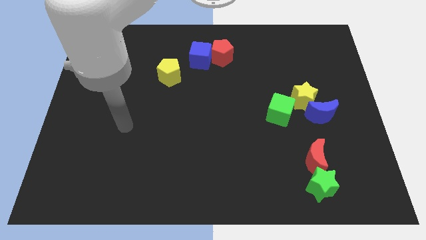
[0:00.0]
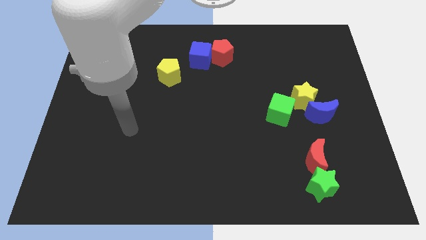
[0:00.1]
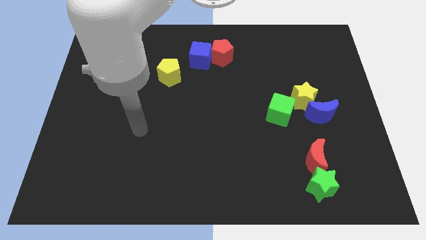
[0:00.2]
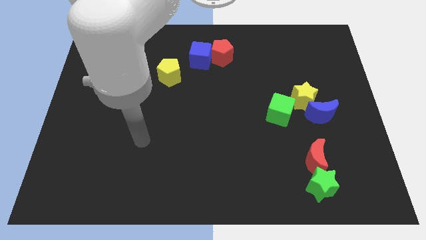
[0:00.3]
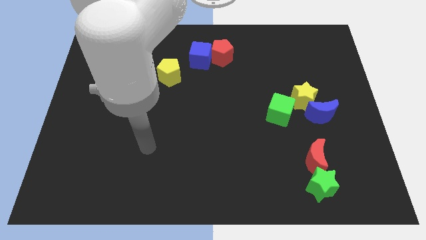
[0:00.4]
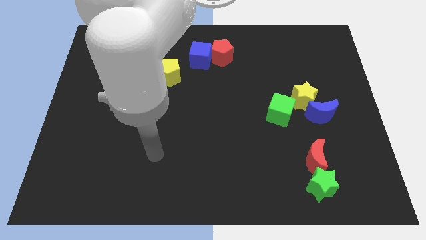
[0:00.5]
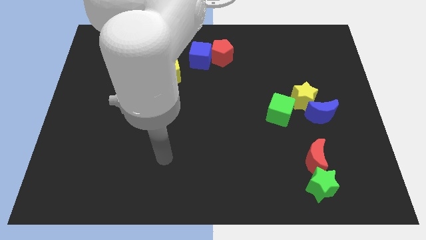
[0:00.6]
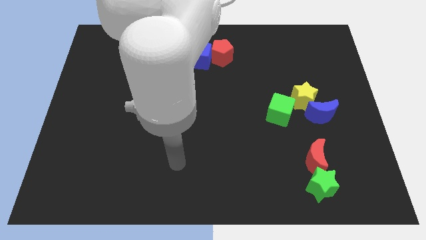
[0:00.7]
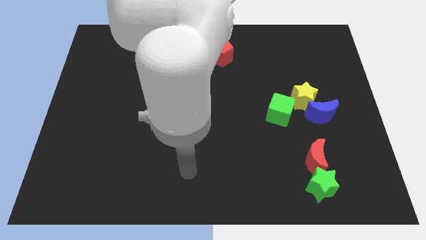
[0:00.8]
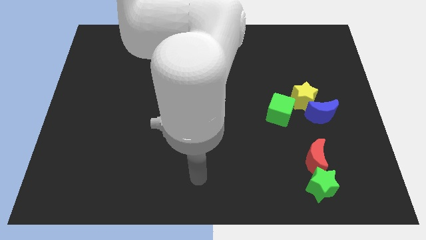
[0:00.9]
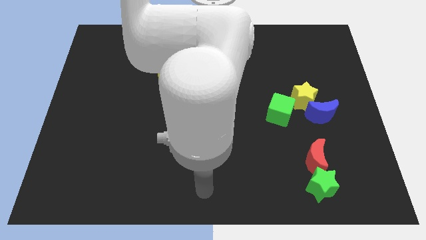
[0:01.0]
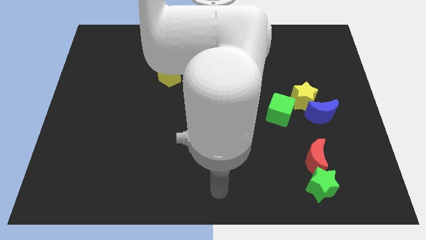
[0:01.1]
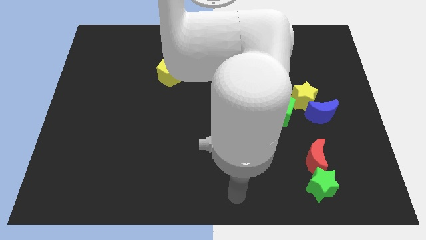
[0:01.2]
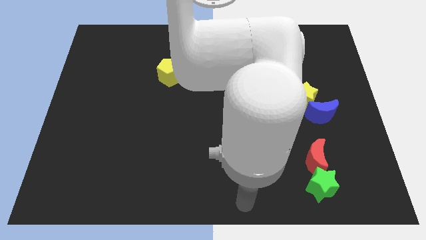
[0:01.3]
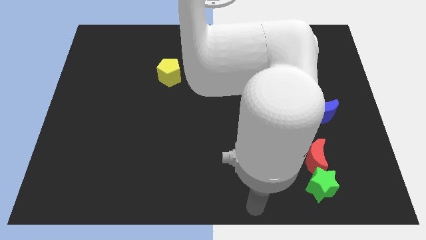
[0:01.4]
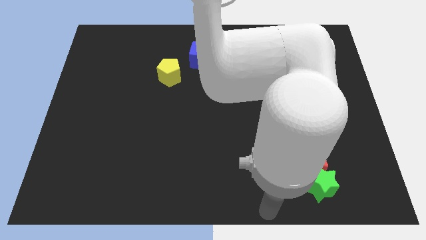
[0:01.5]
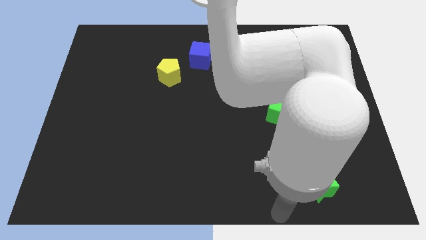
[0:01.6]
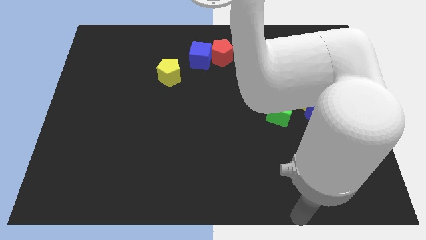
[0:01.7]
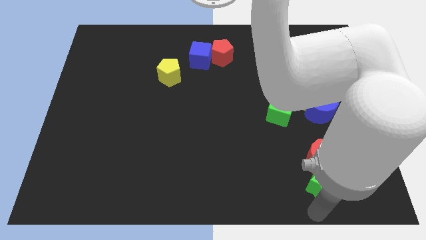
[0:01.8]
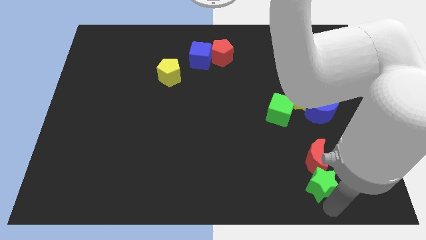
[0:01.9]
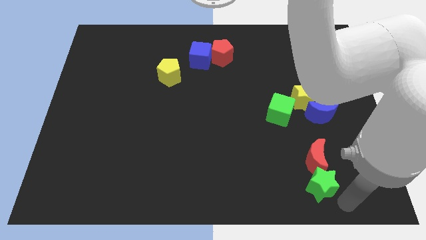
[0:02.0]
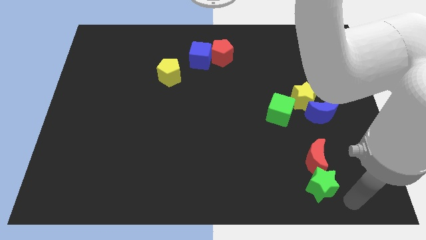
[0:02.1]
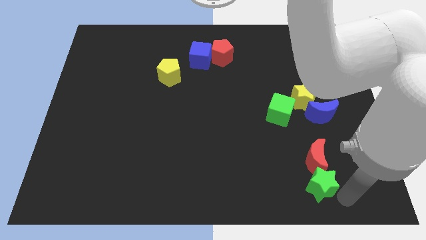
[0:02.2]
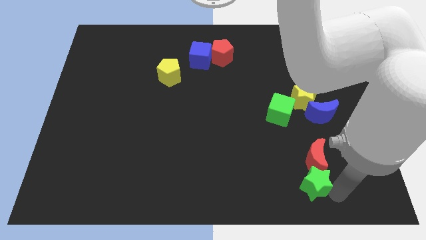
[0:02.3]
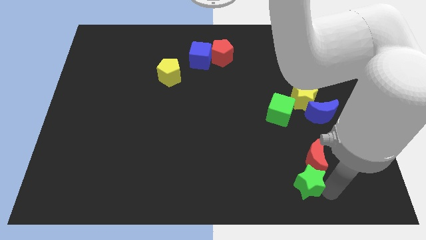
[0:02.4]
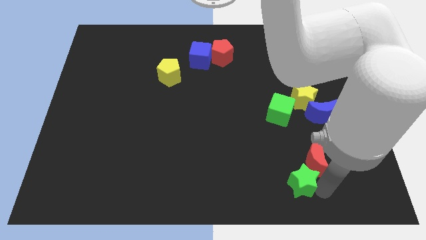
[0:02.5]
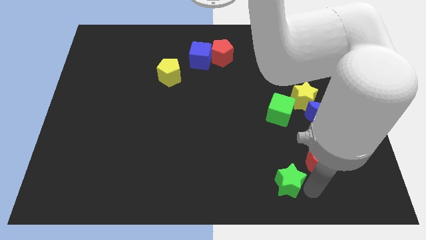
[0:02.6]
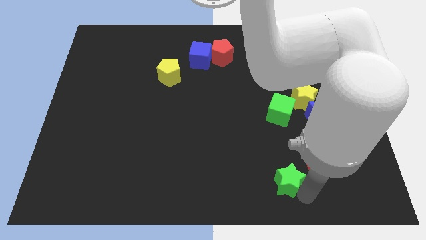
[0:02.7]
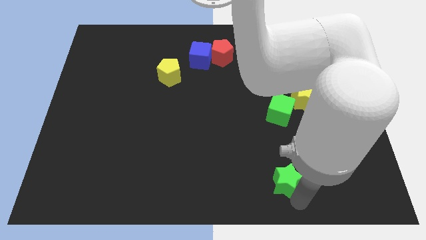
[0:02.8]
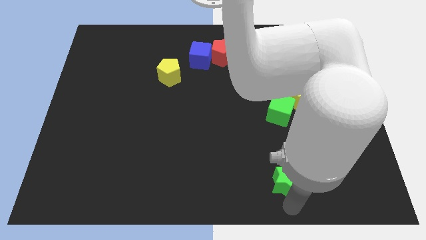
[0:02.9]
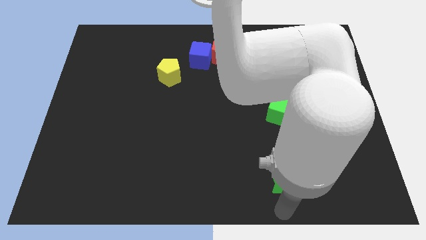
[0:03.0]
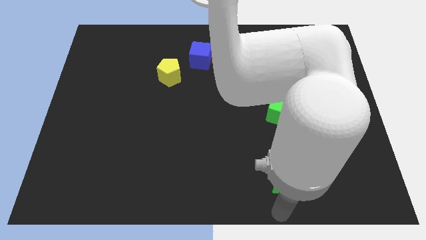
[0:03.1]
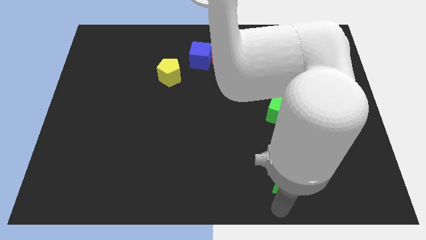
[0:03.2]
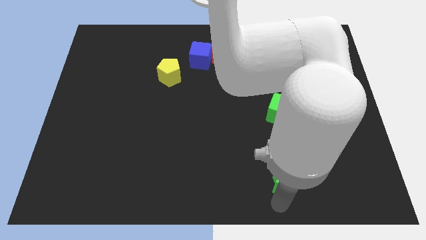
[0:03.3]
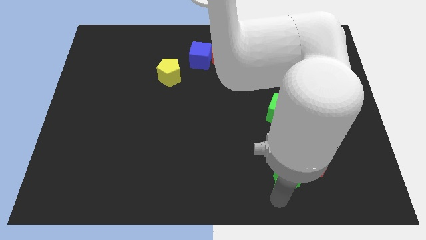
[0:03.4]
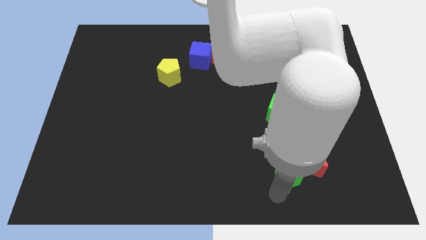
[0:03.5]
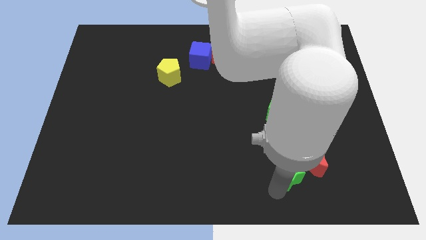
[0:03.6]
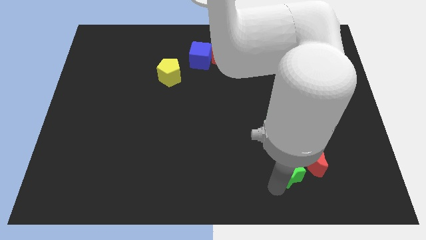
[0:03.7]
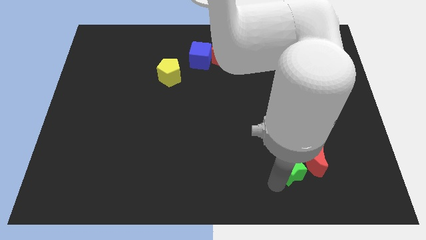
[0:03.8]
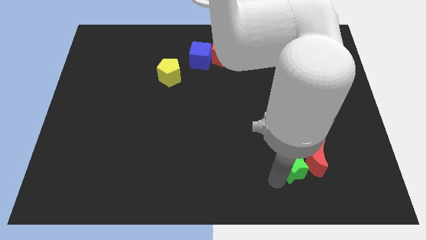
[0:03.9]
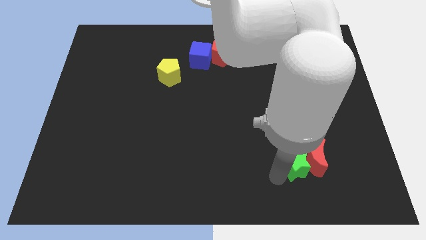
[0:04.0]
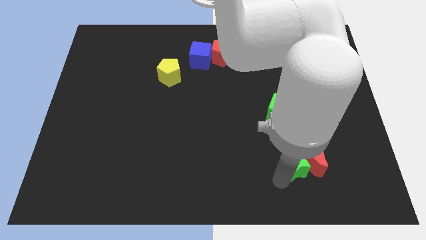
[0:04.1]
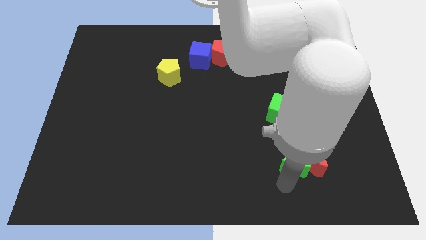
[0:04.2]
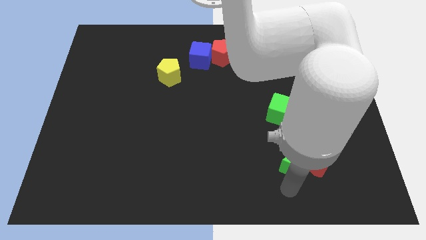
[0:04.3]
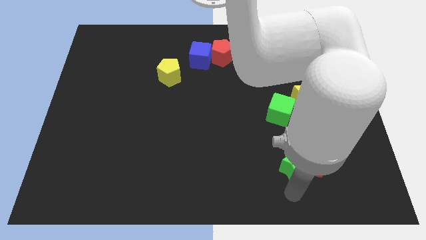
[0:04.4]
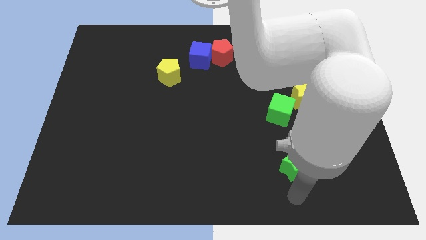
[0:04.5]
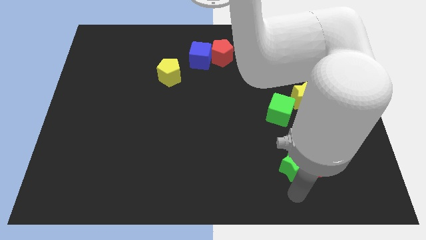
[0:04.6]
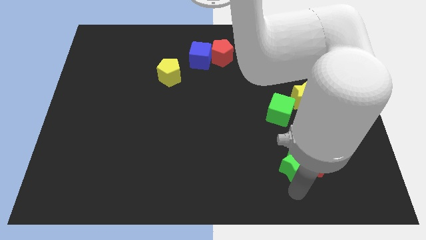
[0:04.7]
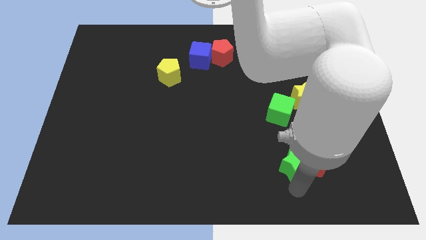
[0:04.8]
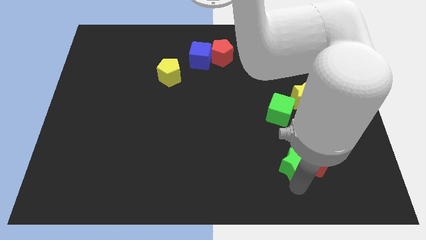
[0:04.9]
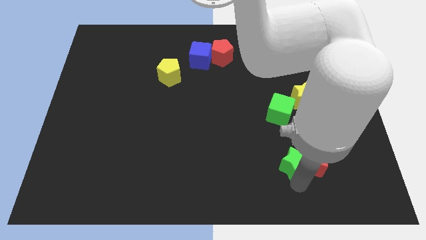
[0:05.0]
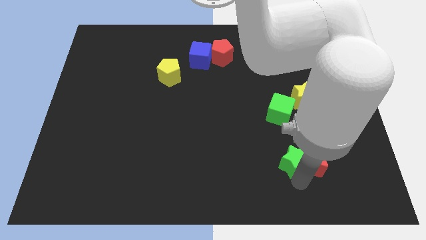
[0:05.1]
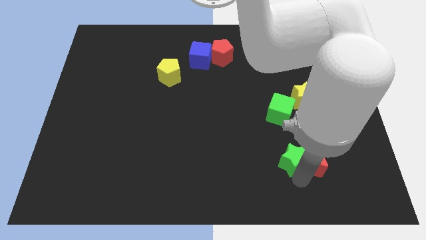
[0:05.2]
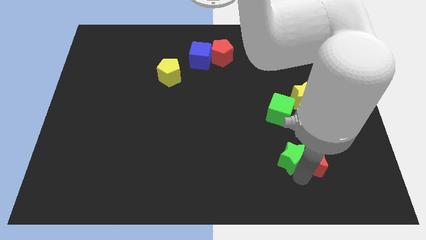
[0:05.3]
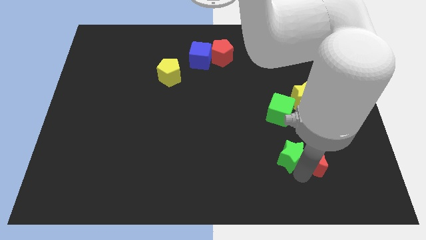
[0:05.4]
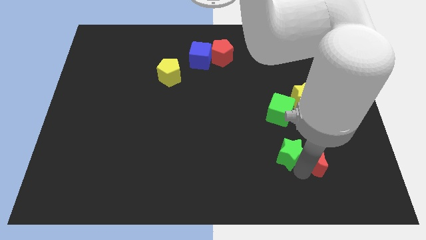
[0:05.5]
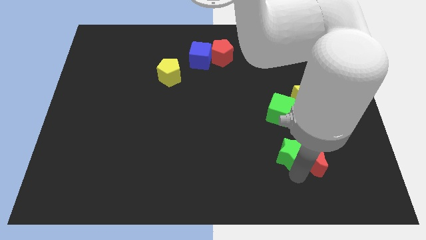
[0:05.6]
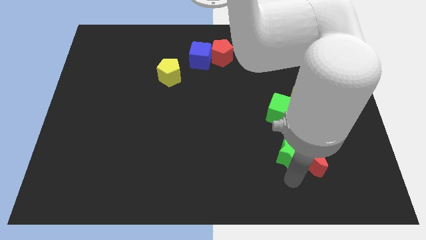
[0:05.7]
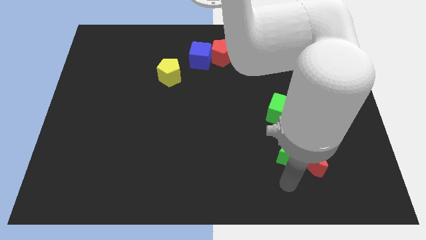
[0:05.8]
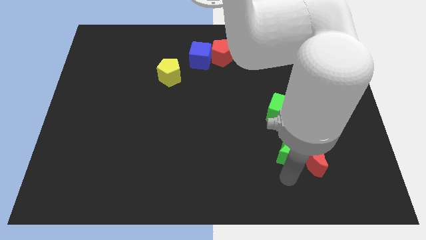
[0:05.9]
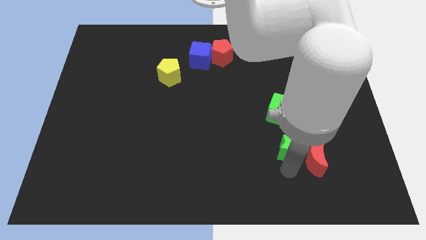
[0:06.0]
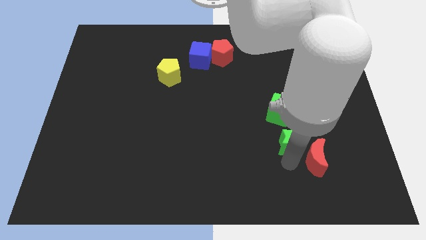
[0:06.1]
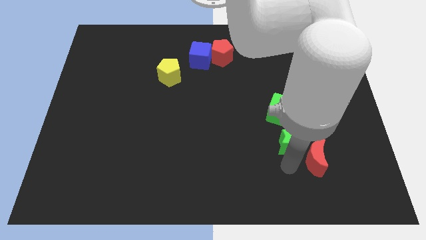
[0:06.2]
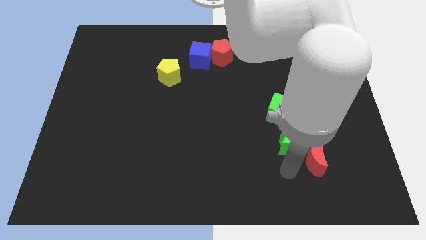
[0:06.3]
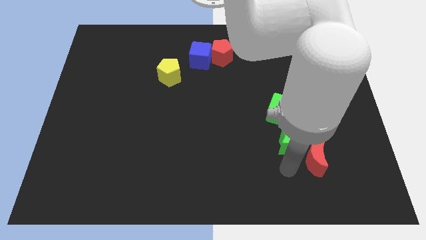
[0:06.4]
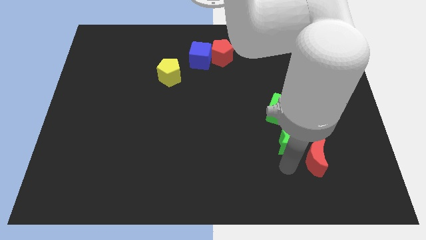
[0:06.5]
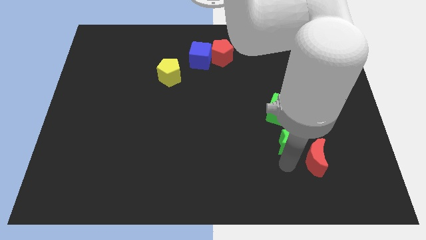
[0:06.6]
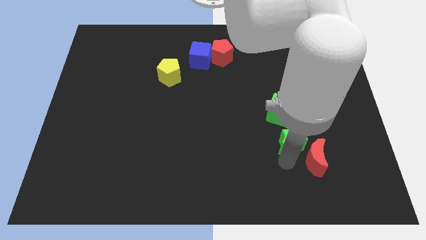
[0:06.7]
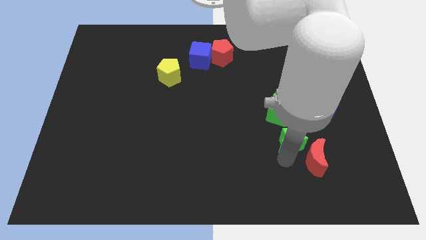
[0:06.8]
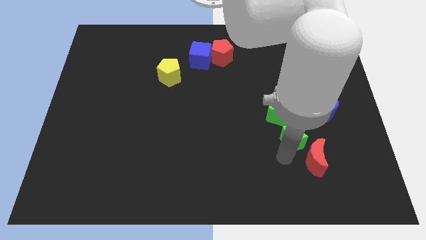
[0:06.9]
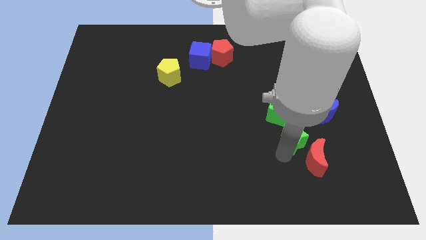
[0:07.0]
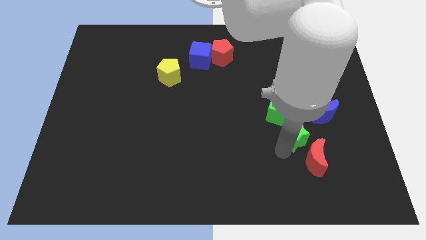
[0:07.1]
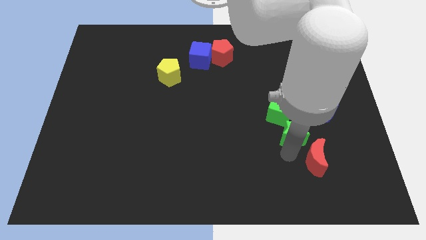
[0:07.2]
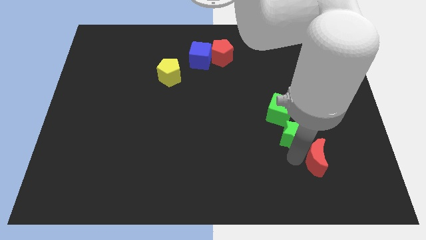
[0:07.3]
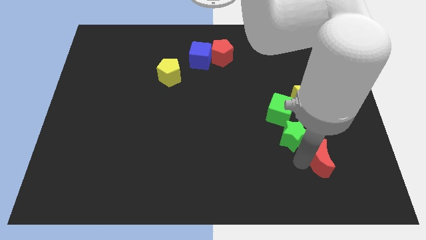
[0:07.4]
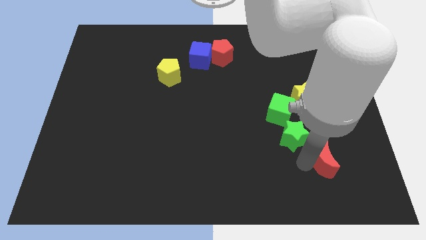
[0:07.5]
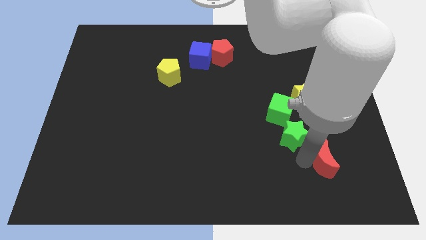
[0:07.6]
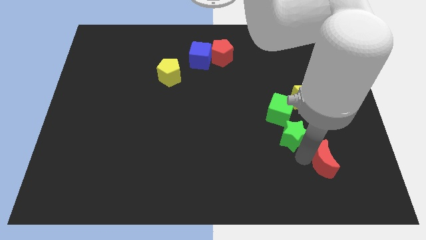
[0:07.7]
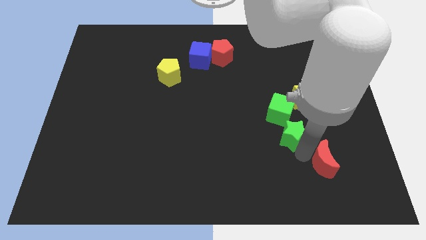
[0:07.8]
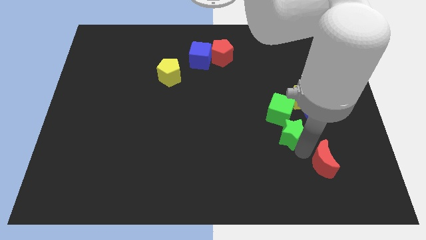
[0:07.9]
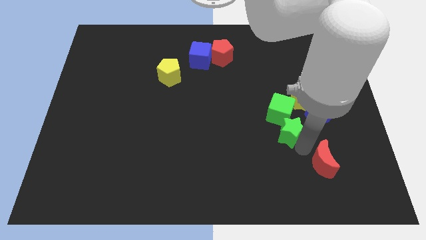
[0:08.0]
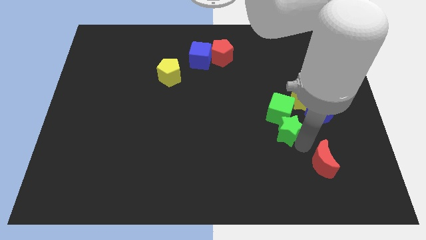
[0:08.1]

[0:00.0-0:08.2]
put the green star next to the green cube
